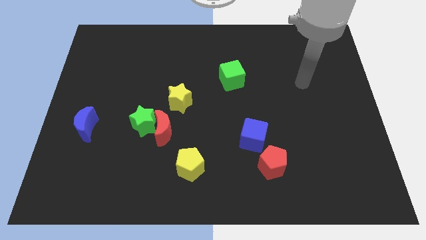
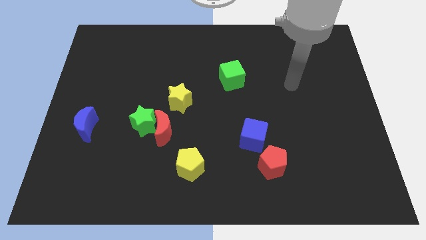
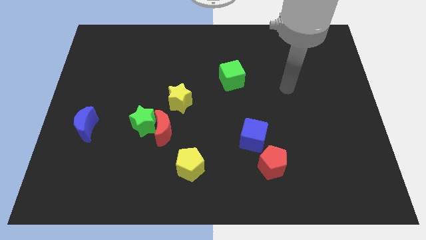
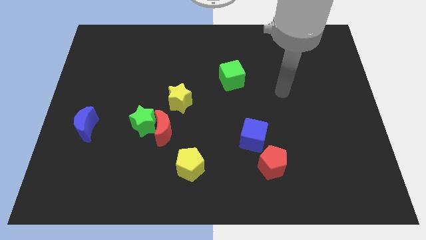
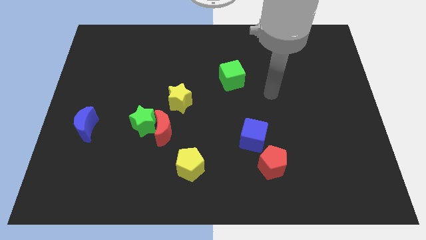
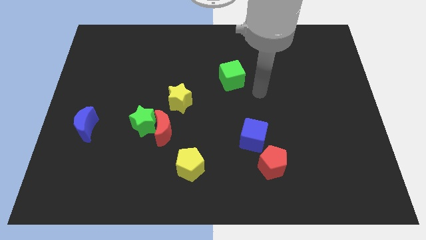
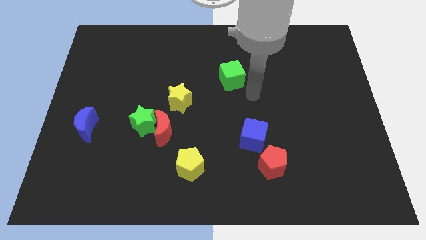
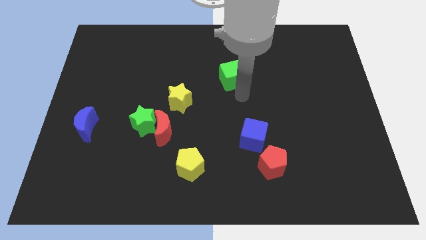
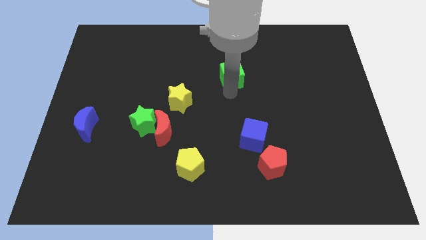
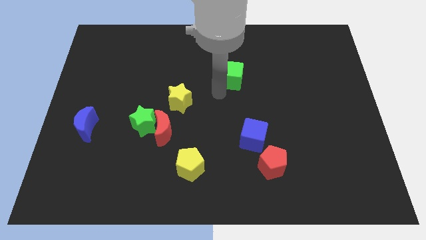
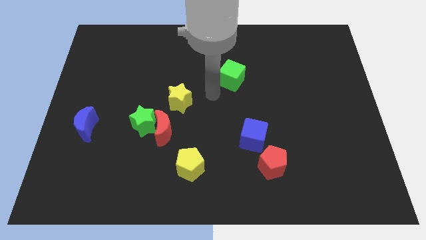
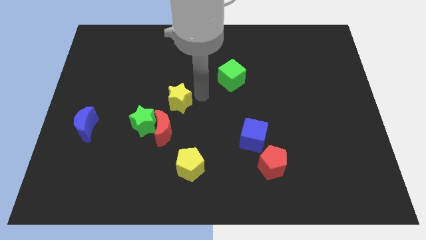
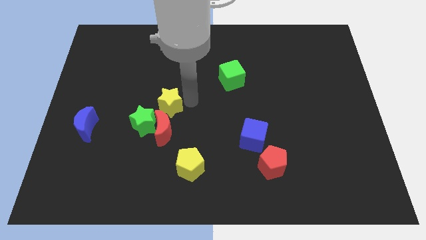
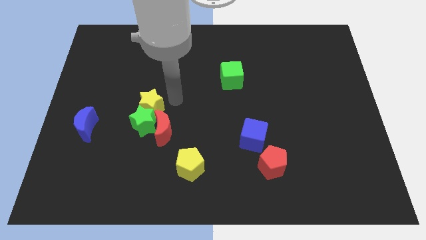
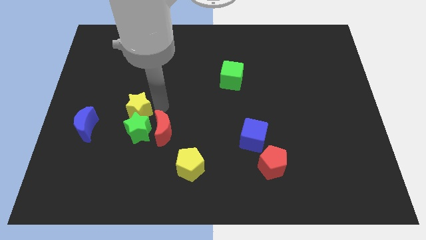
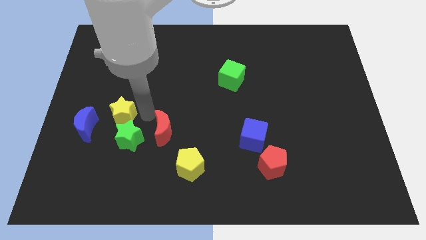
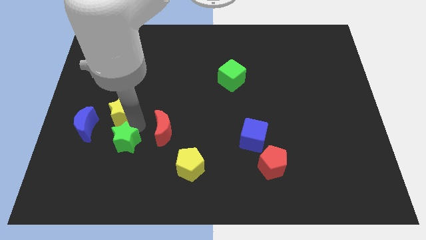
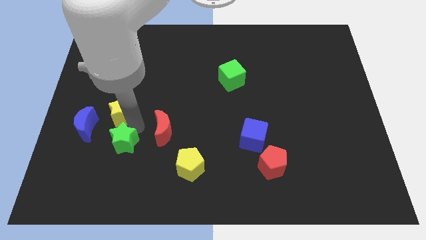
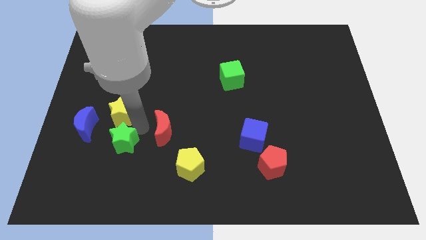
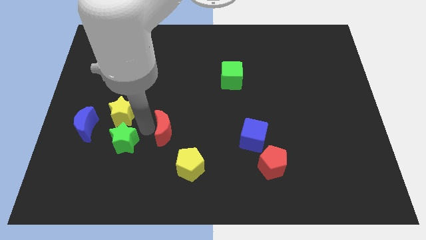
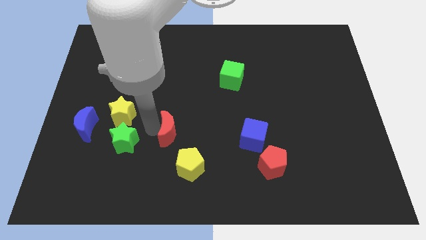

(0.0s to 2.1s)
separate the red moon from the green star and yellow star

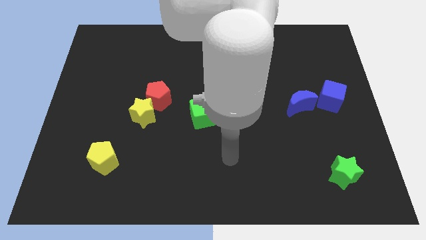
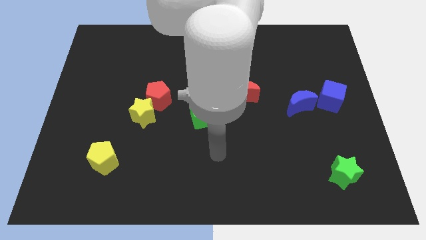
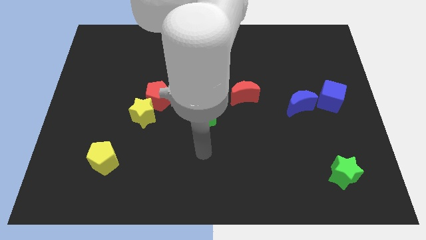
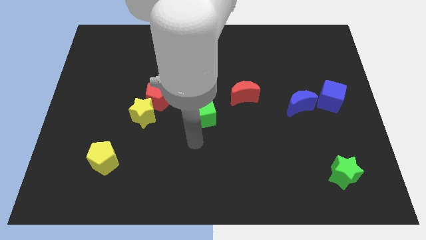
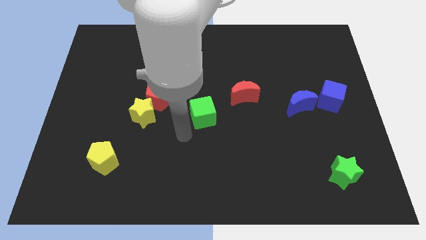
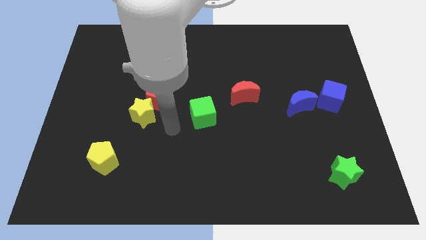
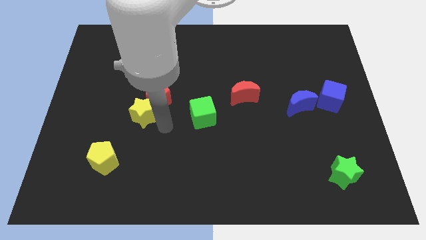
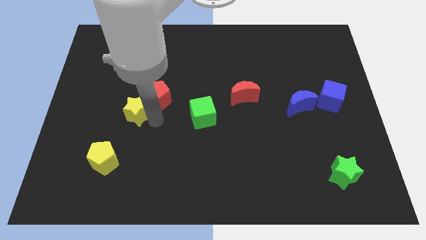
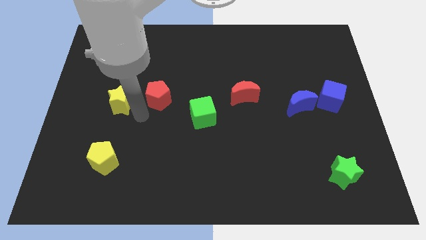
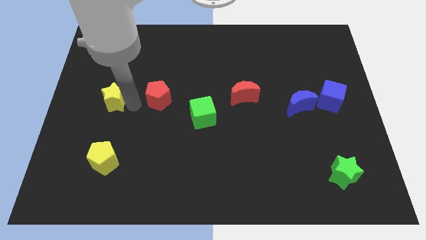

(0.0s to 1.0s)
move the red pentagon away from the yellow star

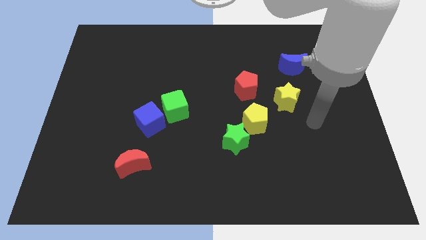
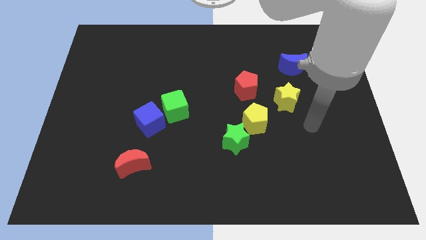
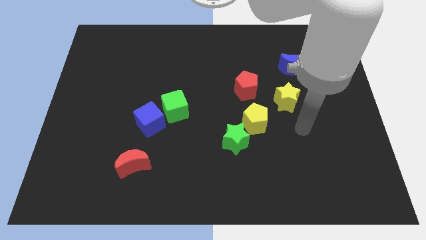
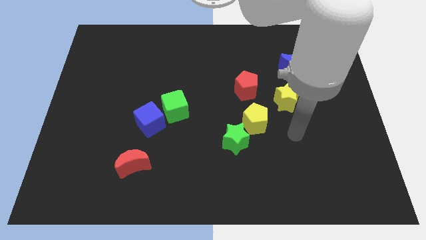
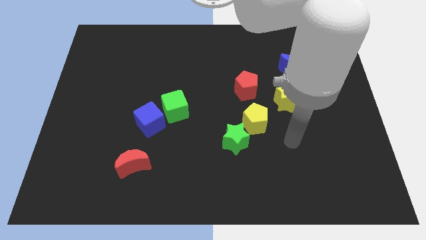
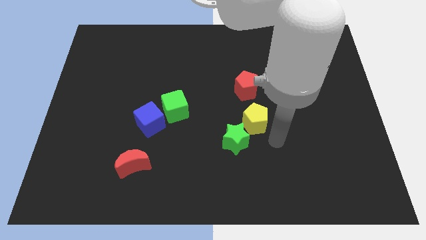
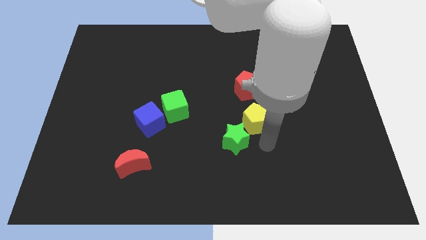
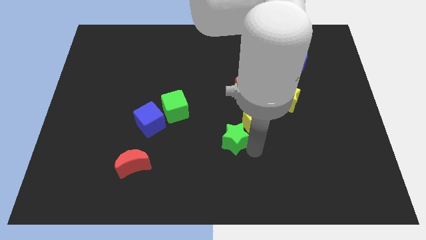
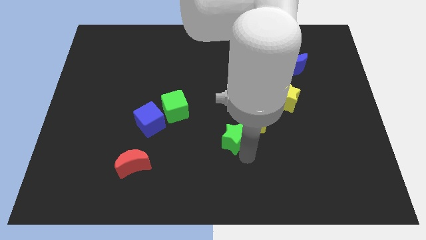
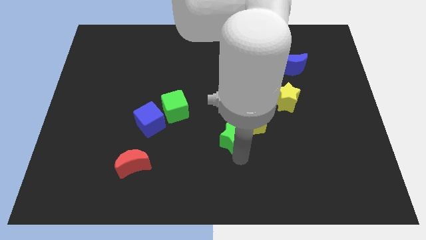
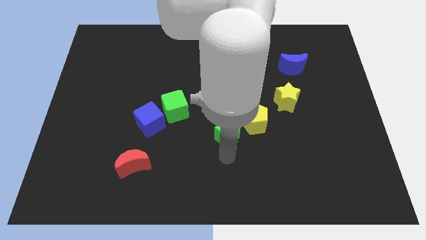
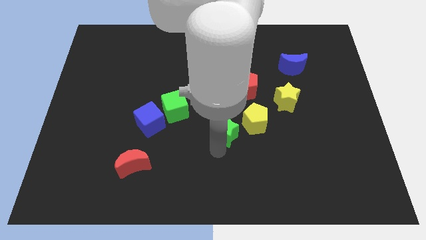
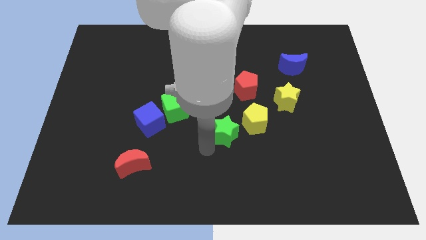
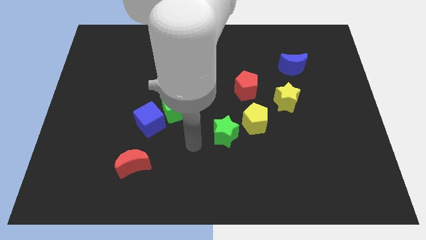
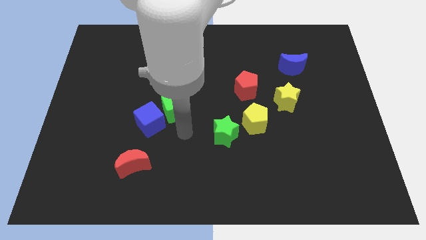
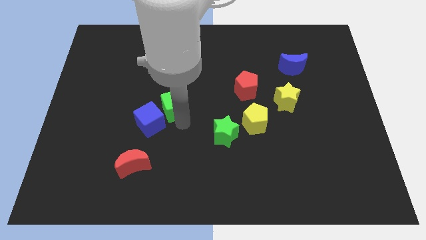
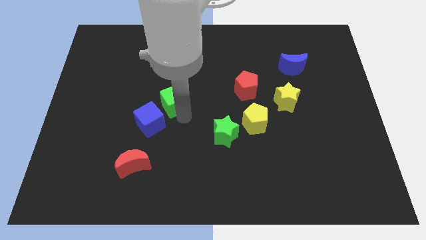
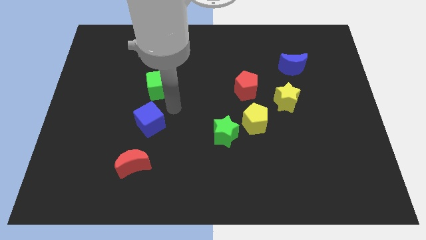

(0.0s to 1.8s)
separate the blue cube from the green cube

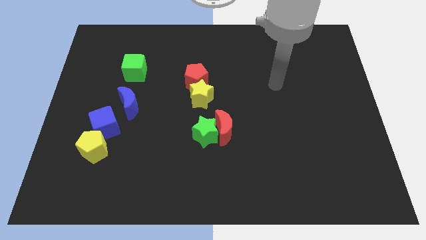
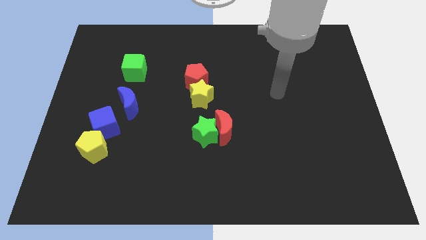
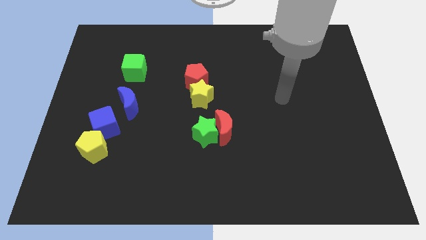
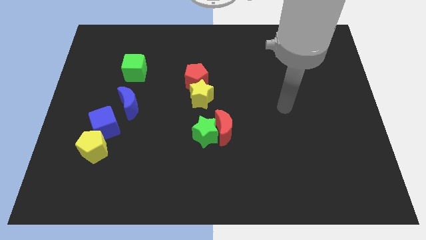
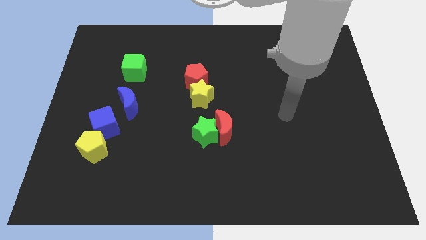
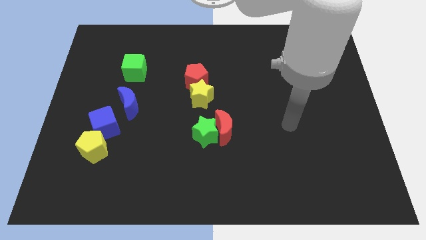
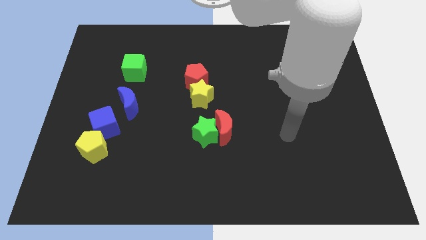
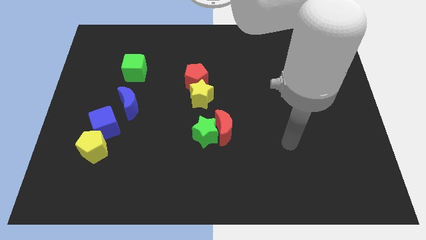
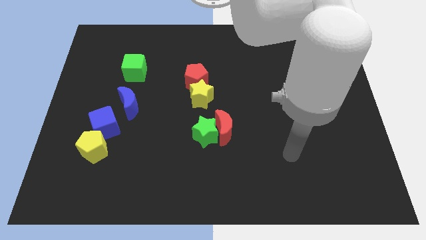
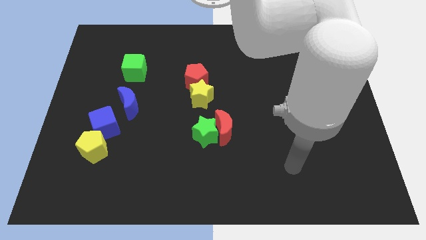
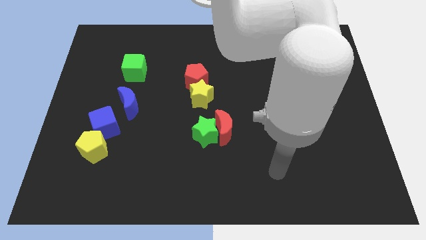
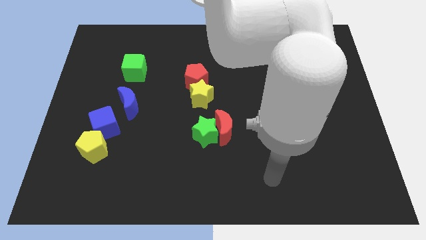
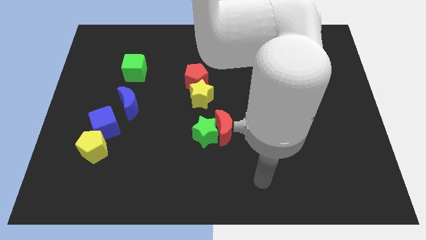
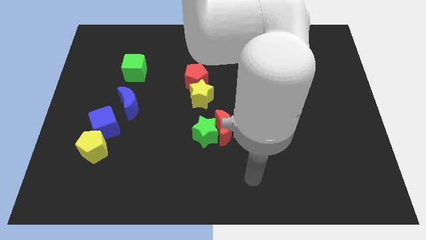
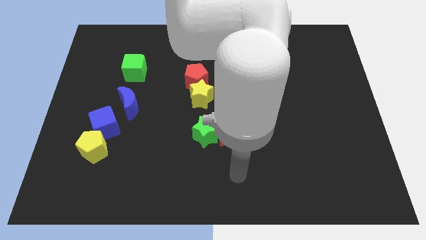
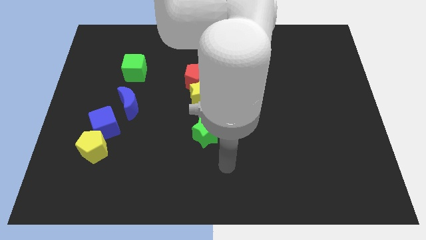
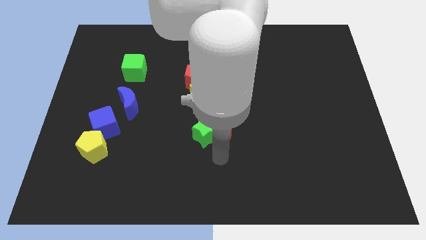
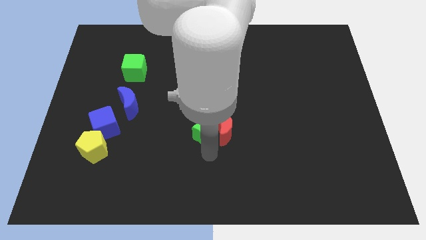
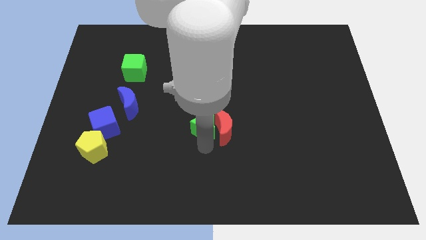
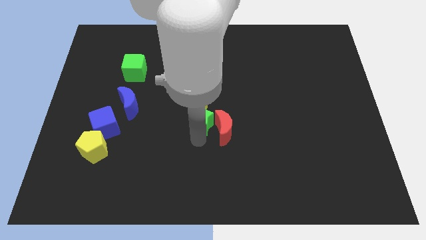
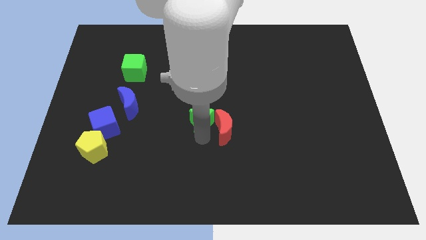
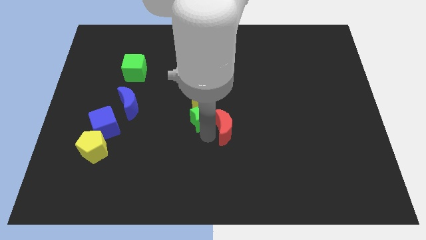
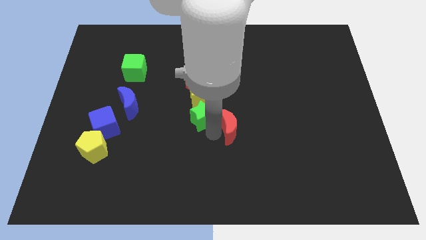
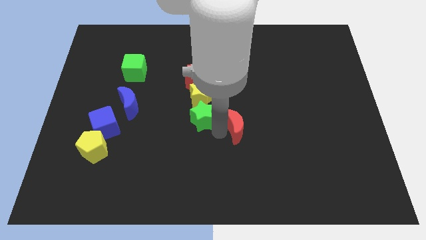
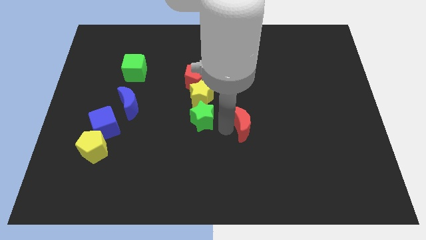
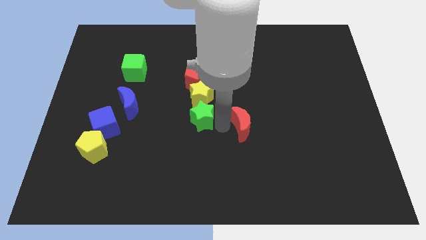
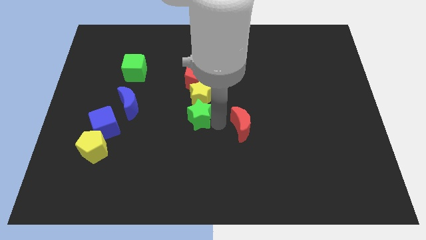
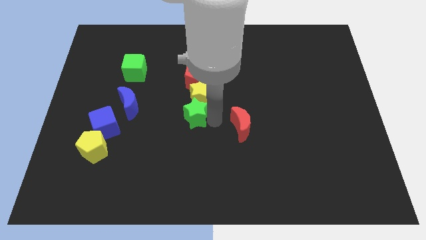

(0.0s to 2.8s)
separate the red moon from the green star

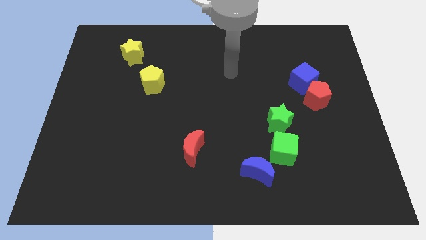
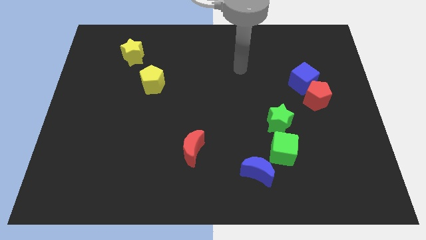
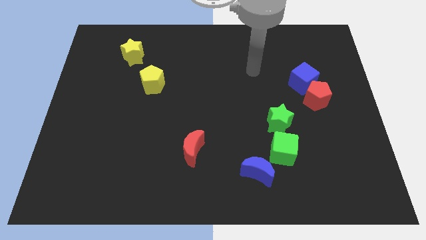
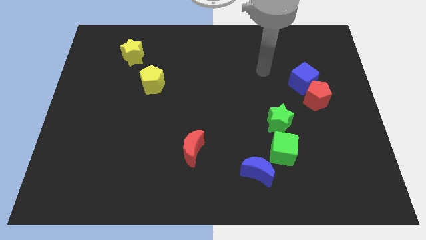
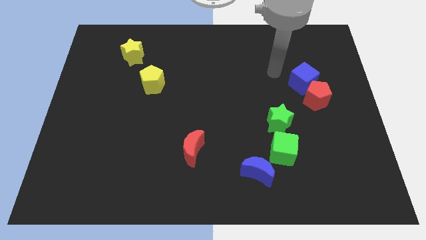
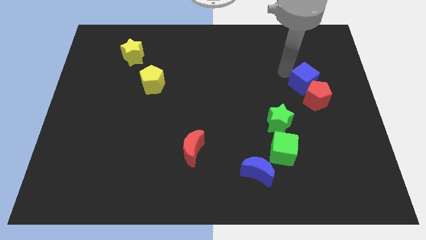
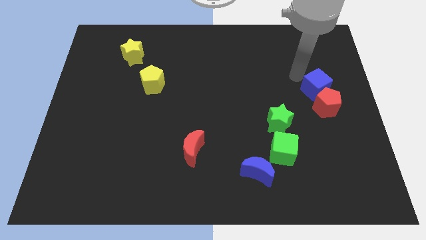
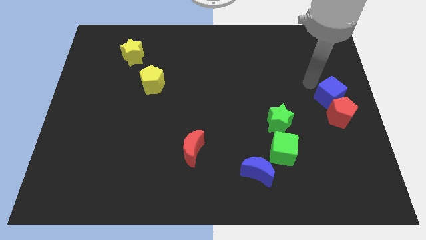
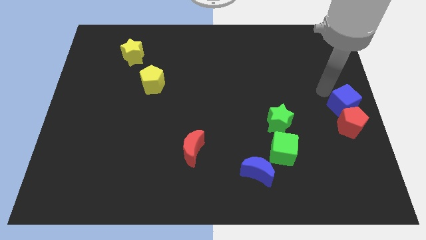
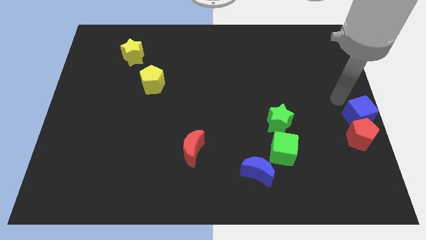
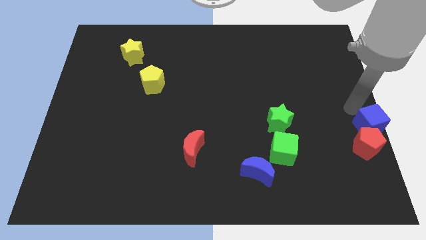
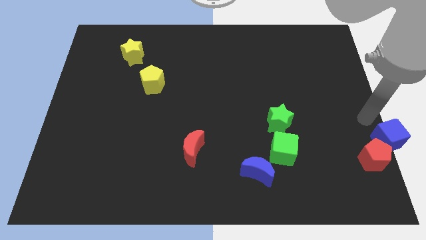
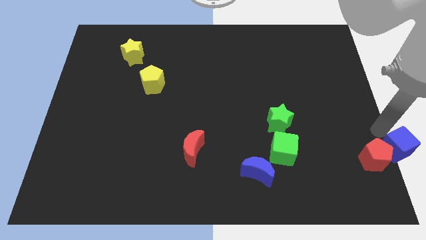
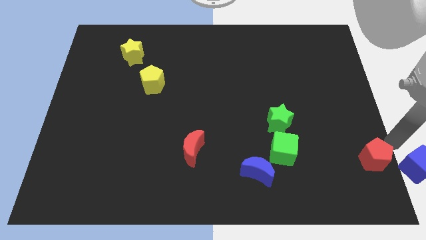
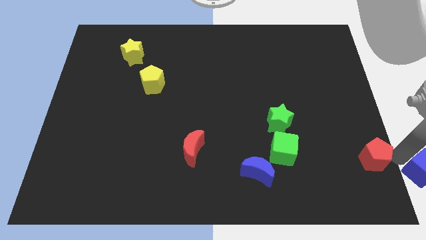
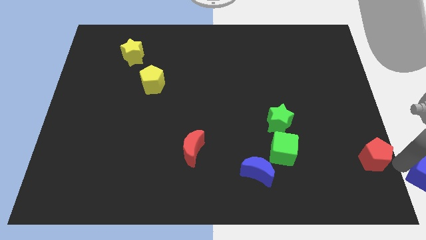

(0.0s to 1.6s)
separate the red pentagon from the blue cube
